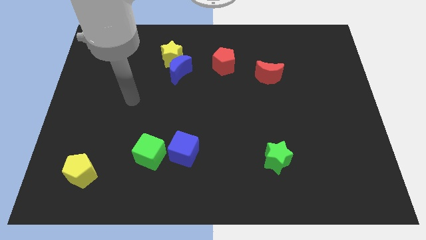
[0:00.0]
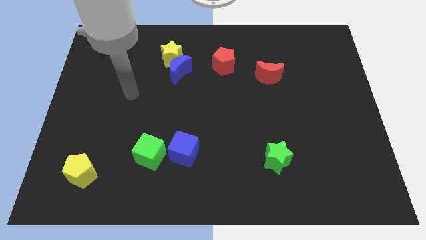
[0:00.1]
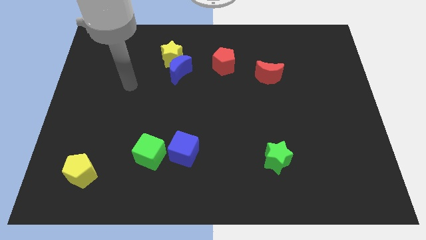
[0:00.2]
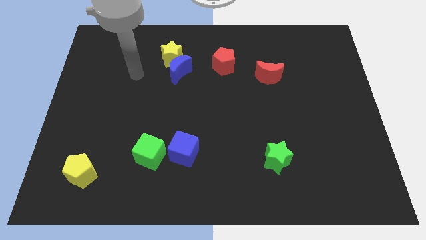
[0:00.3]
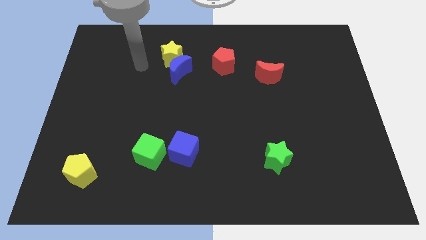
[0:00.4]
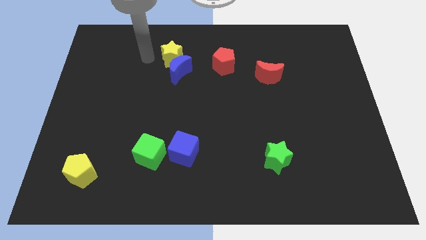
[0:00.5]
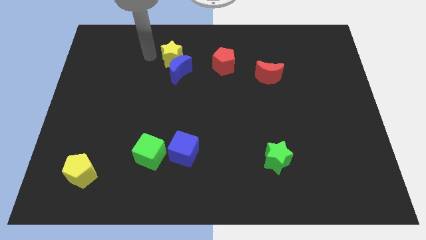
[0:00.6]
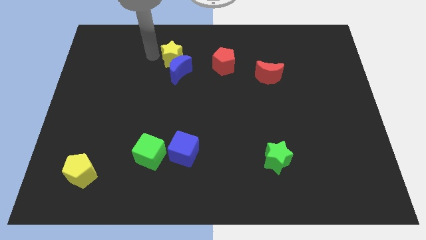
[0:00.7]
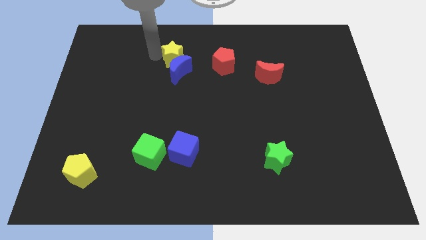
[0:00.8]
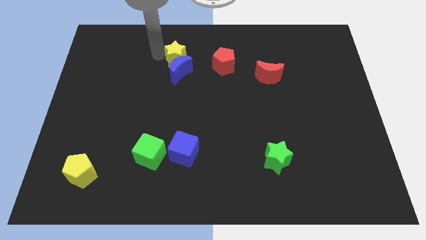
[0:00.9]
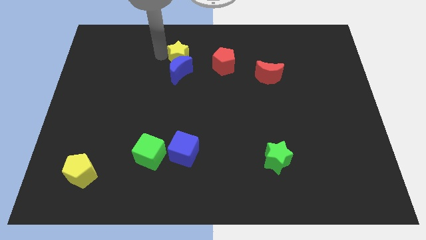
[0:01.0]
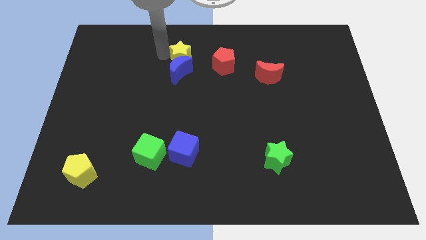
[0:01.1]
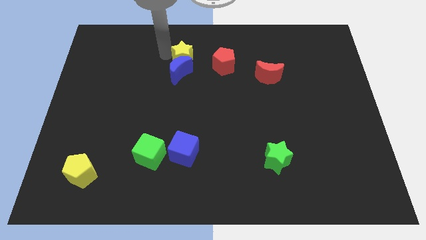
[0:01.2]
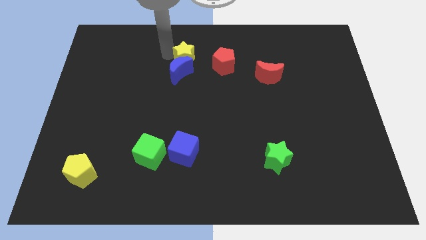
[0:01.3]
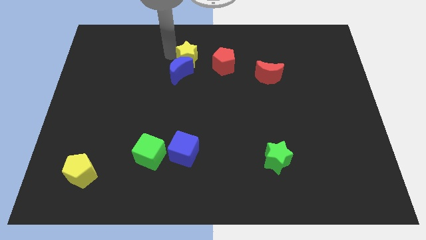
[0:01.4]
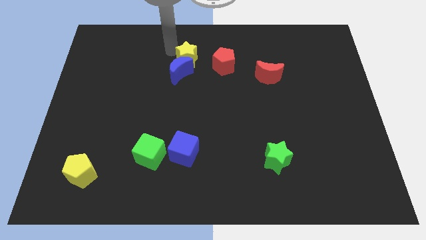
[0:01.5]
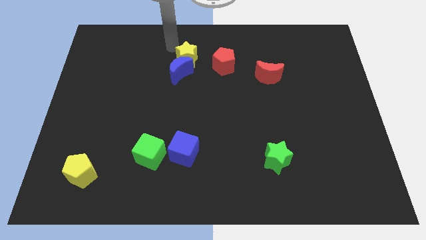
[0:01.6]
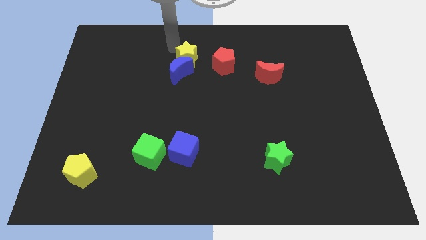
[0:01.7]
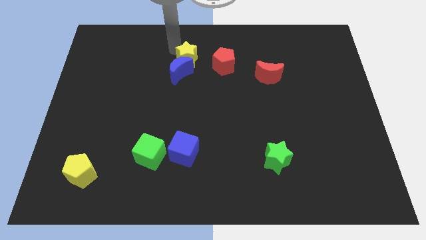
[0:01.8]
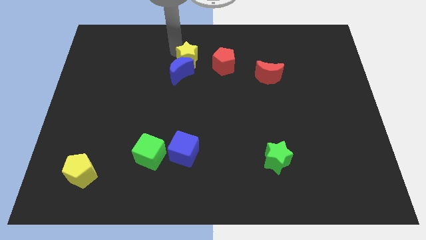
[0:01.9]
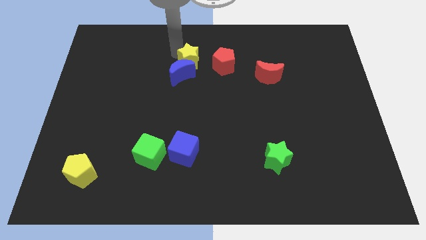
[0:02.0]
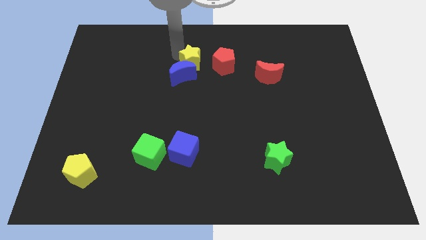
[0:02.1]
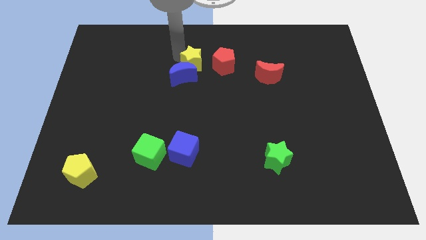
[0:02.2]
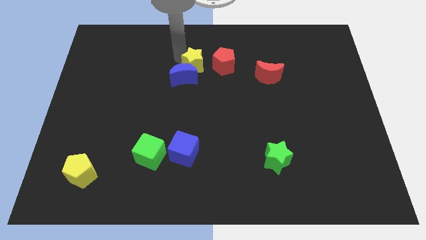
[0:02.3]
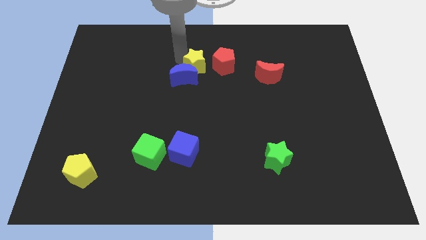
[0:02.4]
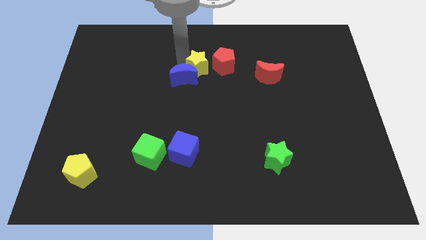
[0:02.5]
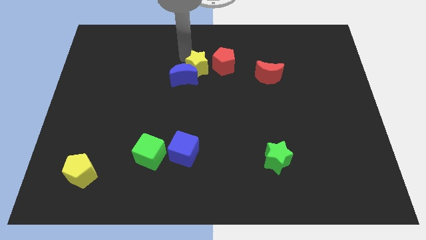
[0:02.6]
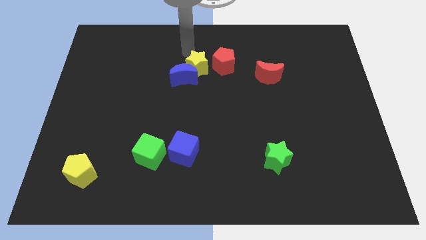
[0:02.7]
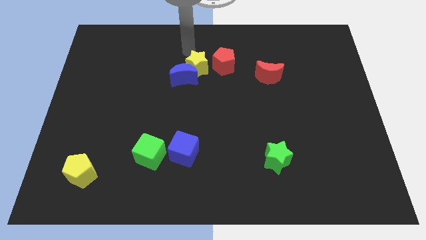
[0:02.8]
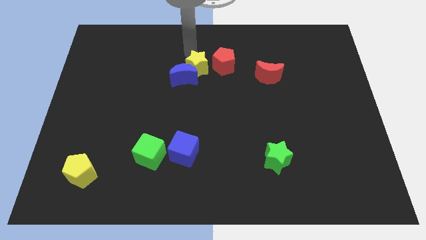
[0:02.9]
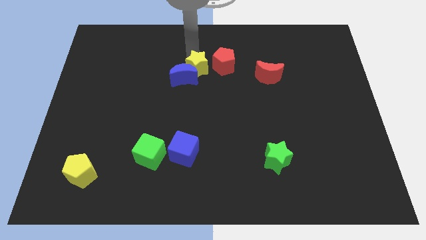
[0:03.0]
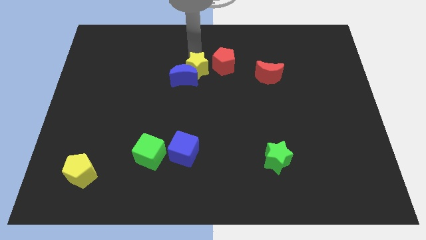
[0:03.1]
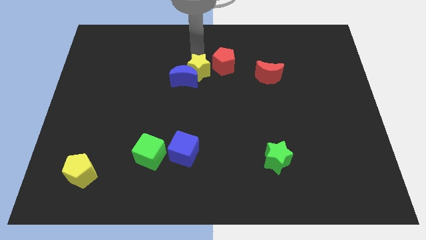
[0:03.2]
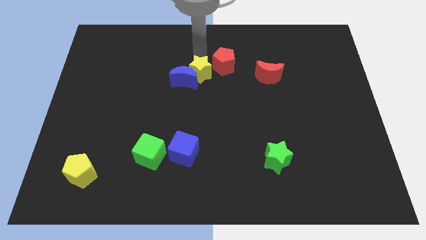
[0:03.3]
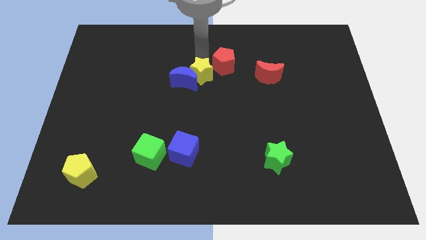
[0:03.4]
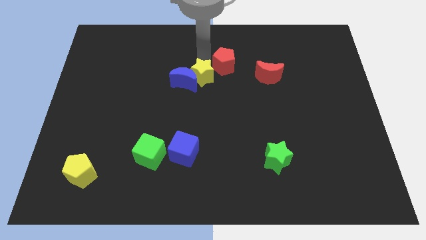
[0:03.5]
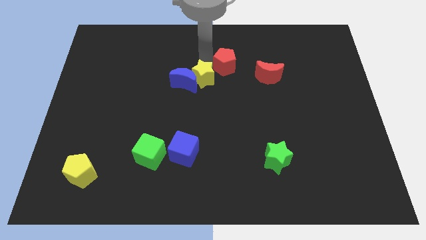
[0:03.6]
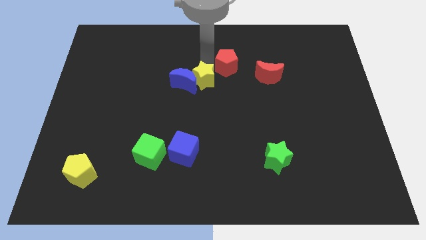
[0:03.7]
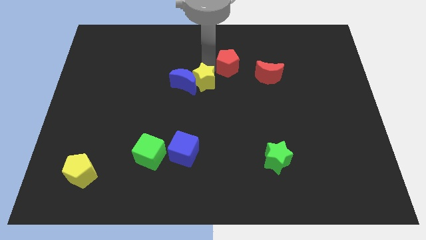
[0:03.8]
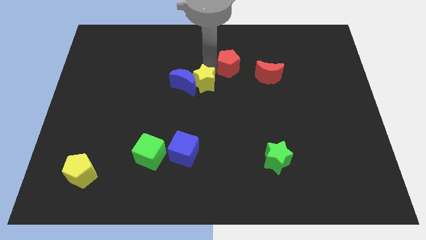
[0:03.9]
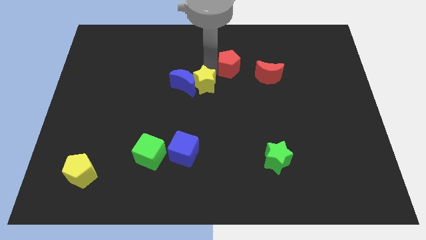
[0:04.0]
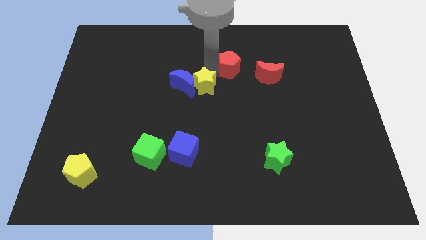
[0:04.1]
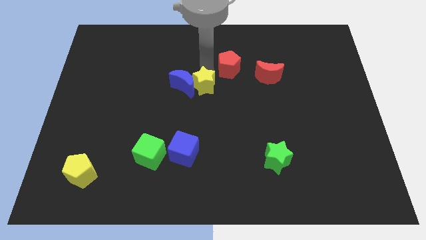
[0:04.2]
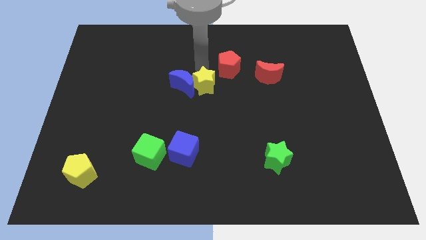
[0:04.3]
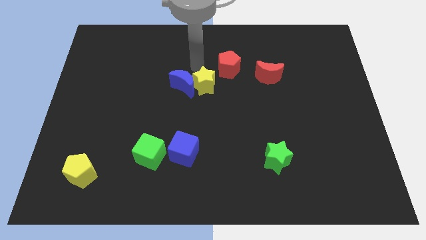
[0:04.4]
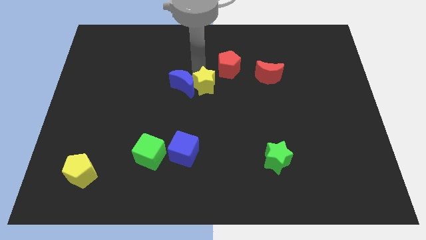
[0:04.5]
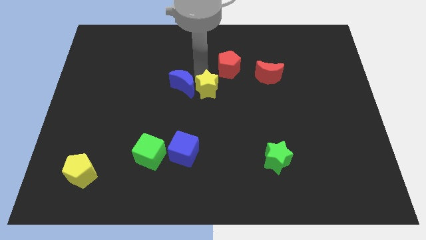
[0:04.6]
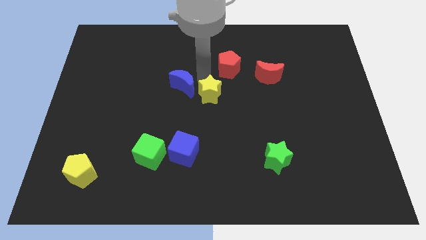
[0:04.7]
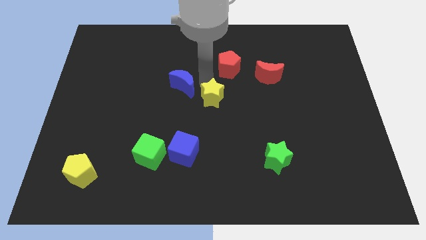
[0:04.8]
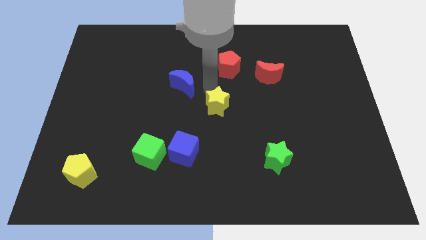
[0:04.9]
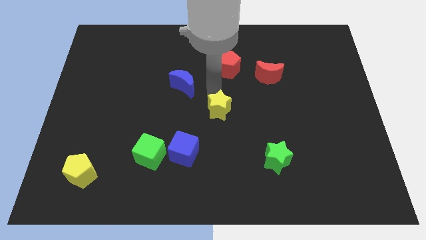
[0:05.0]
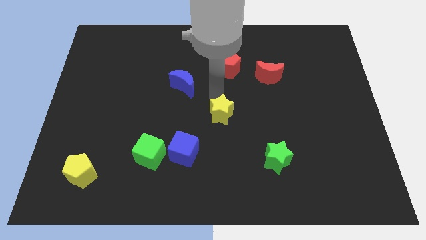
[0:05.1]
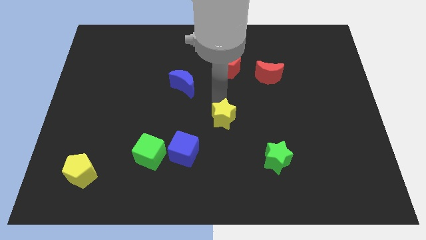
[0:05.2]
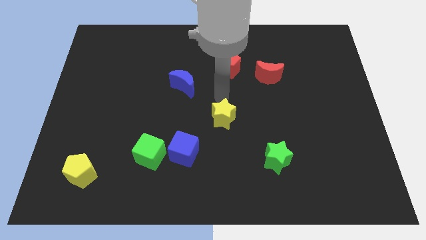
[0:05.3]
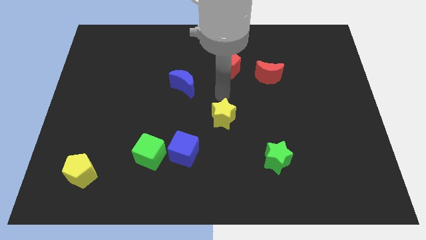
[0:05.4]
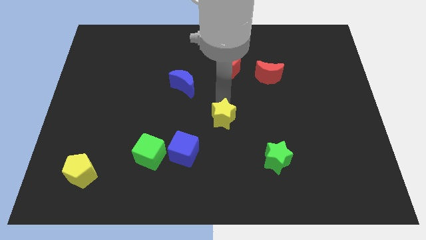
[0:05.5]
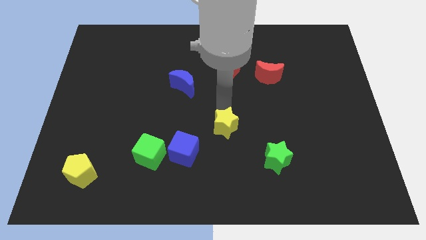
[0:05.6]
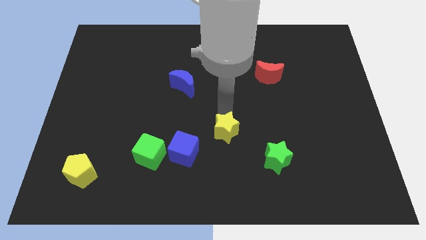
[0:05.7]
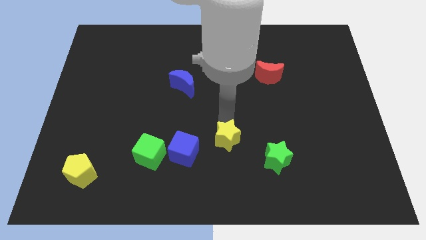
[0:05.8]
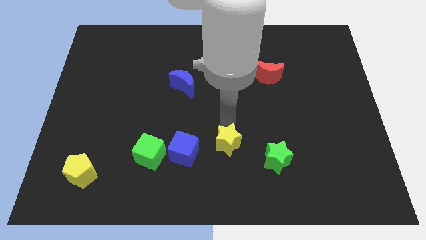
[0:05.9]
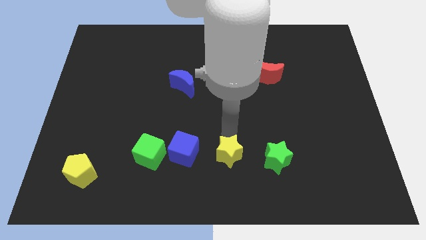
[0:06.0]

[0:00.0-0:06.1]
move the yellow star to the bottom side
